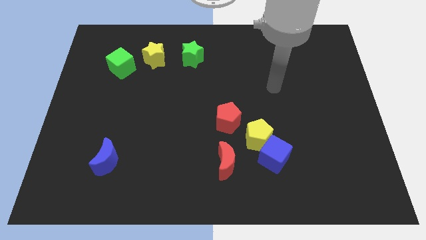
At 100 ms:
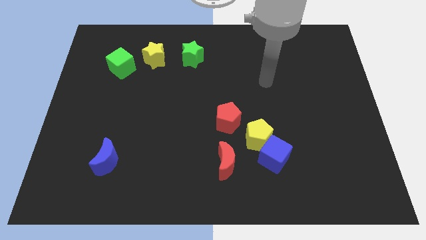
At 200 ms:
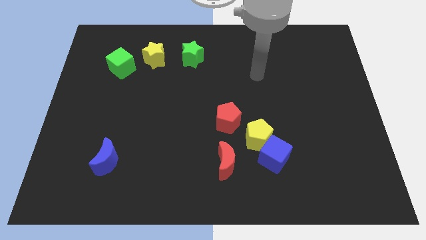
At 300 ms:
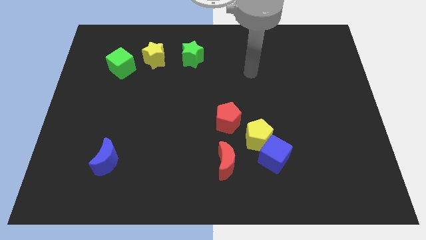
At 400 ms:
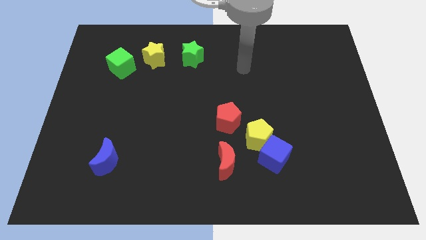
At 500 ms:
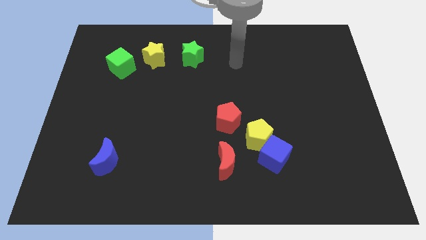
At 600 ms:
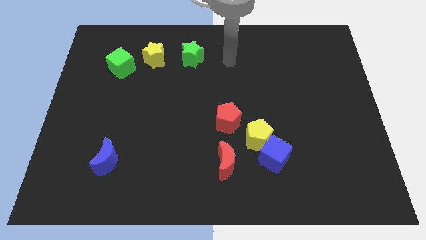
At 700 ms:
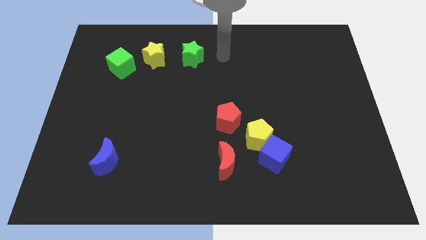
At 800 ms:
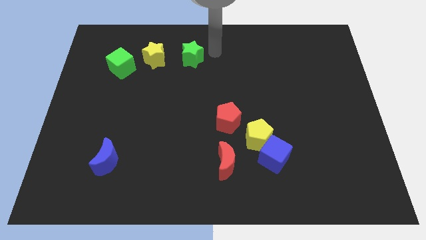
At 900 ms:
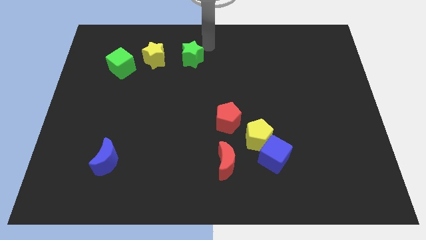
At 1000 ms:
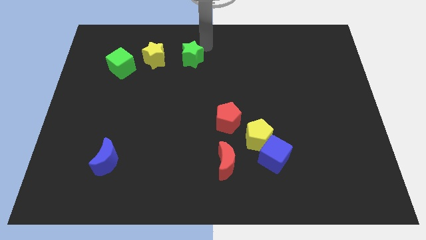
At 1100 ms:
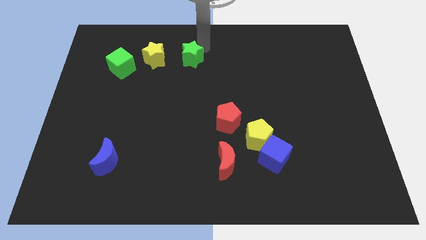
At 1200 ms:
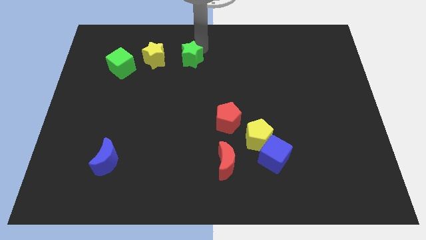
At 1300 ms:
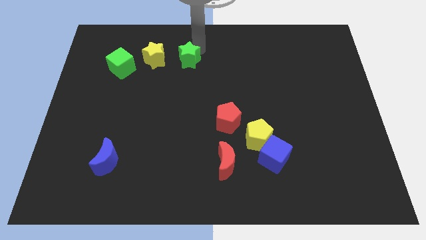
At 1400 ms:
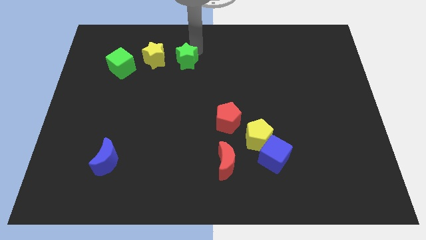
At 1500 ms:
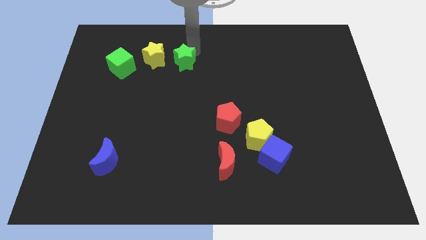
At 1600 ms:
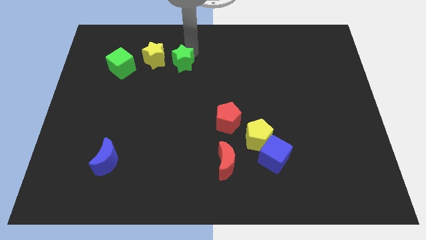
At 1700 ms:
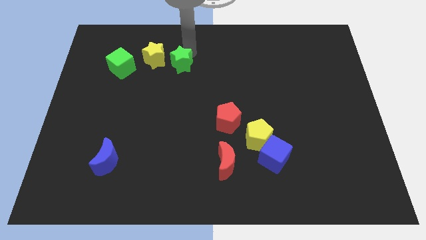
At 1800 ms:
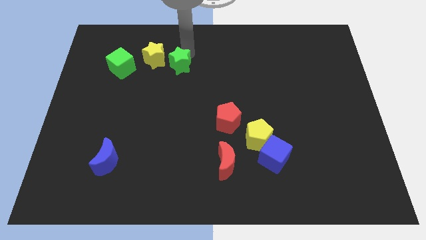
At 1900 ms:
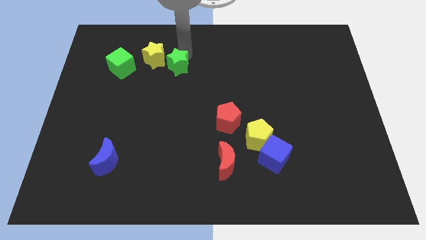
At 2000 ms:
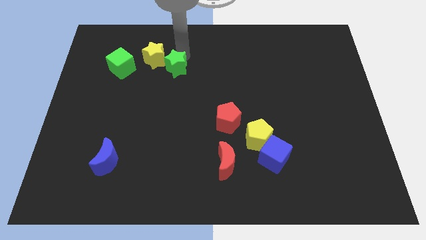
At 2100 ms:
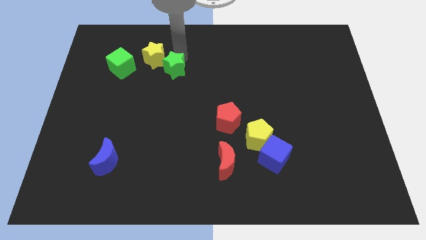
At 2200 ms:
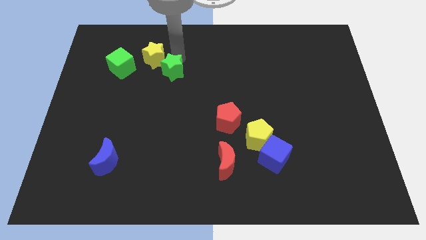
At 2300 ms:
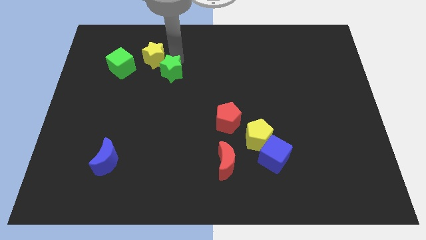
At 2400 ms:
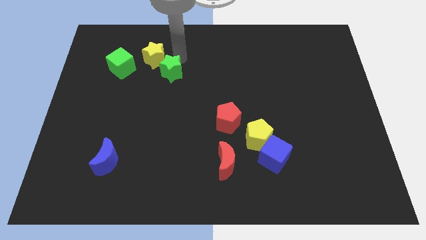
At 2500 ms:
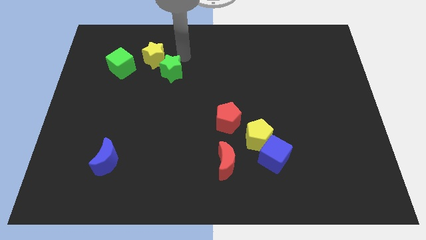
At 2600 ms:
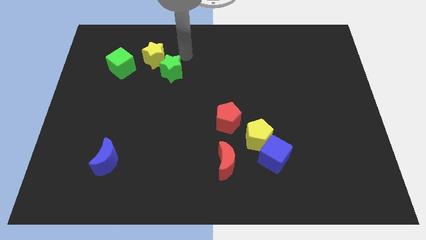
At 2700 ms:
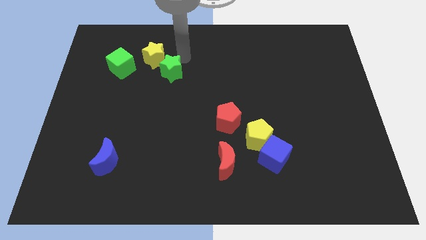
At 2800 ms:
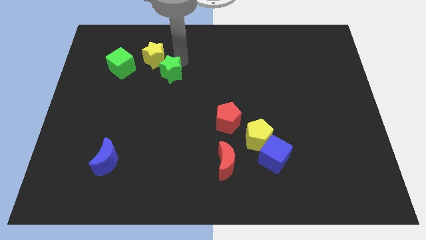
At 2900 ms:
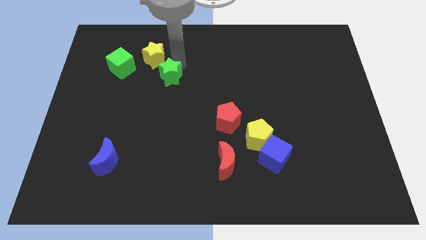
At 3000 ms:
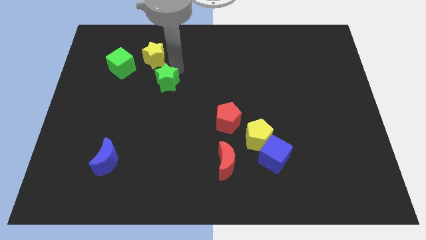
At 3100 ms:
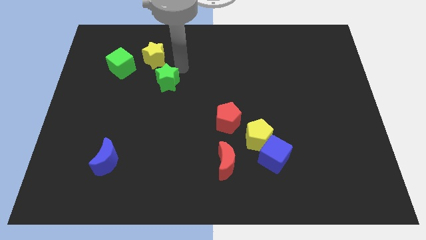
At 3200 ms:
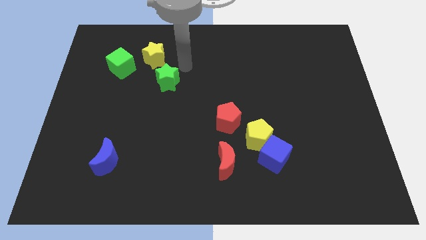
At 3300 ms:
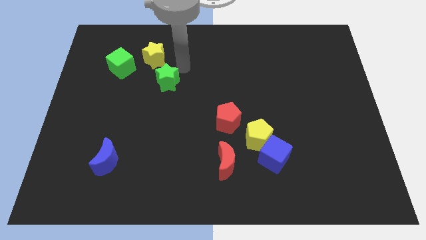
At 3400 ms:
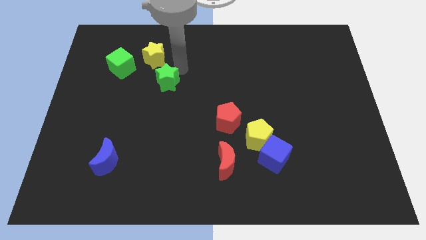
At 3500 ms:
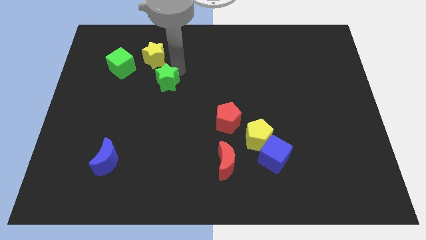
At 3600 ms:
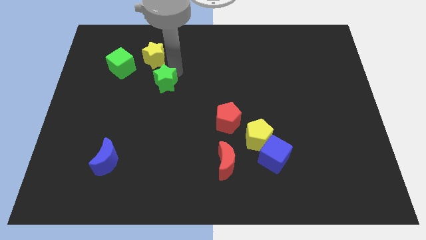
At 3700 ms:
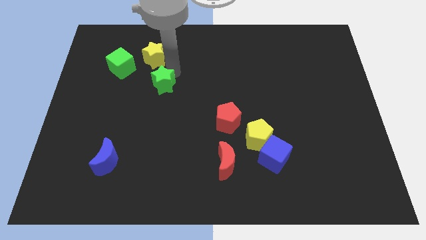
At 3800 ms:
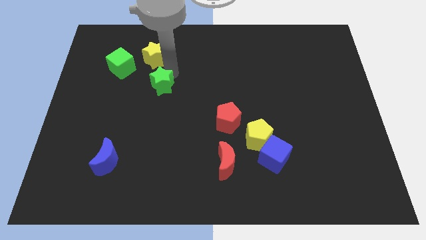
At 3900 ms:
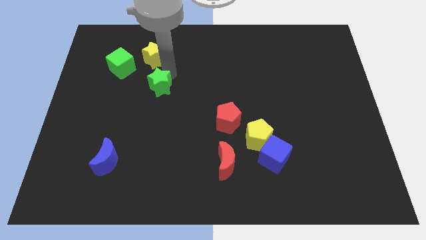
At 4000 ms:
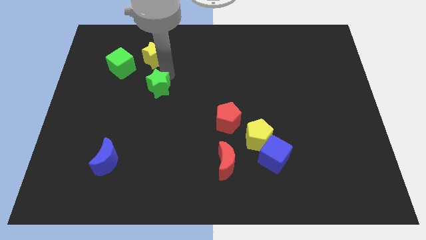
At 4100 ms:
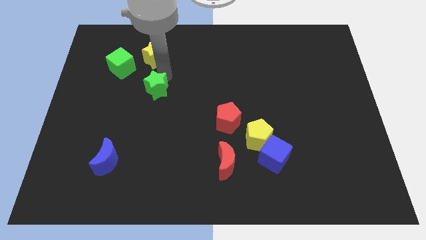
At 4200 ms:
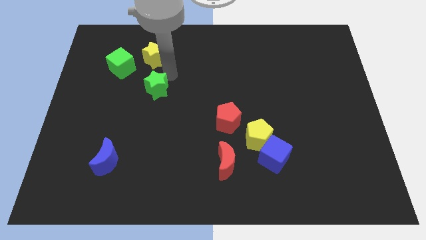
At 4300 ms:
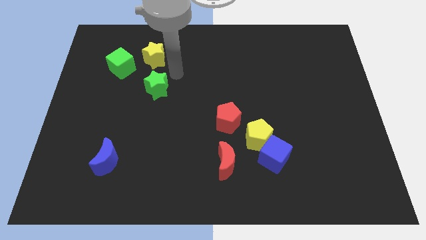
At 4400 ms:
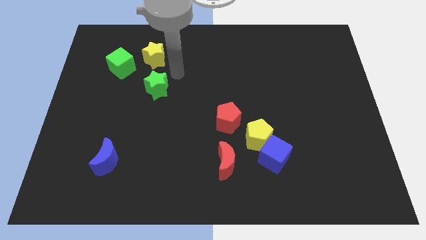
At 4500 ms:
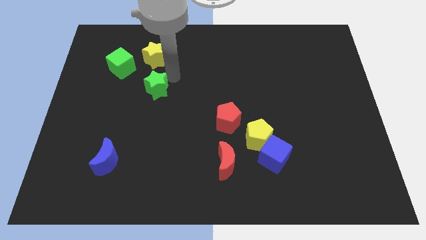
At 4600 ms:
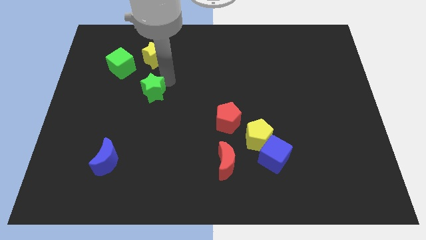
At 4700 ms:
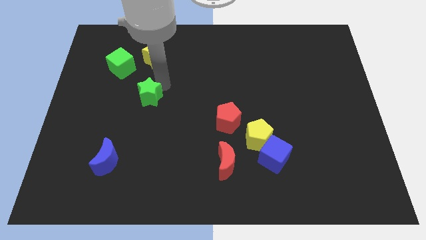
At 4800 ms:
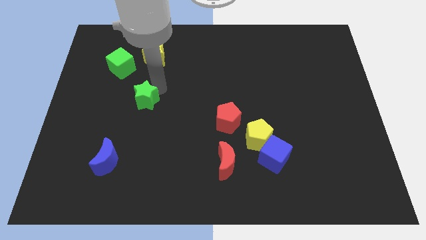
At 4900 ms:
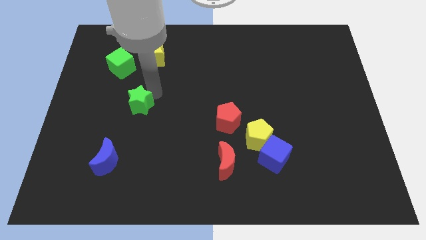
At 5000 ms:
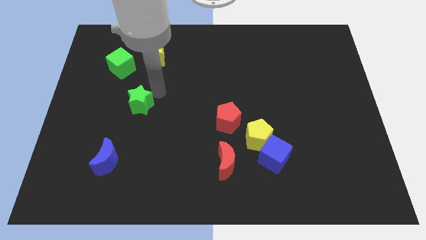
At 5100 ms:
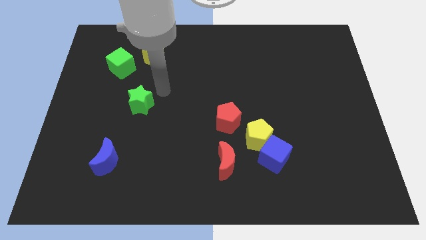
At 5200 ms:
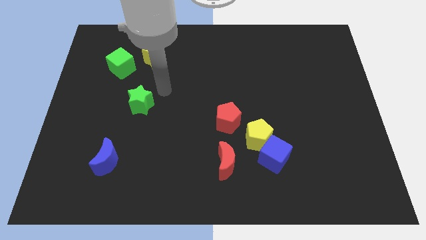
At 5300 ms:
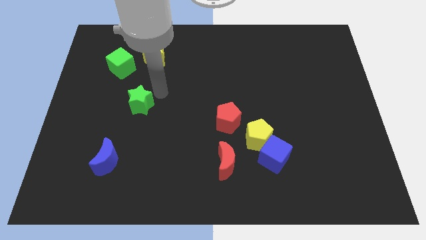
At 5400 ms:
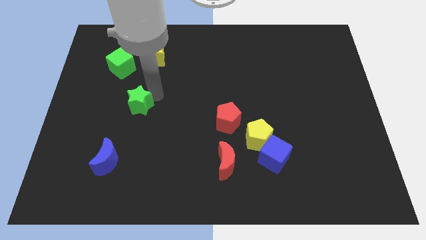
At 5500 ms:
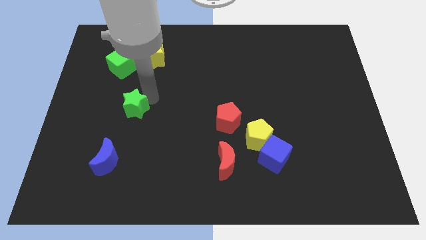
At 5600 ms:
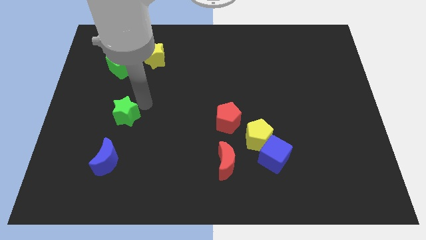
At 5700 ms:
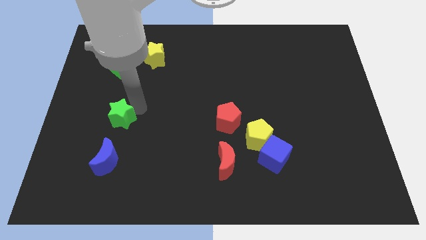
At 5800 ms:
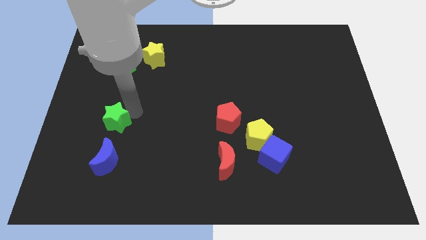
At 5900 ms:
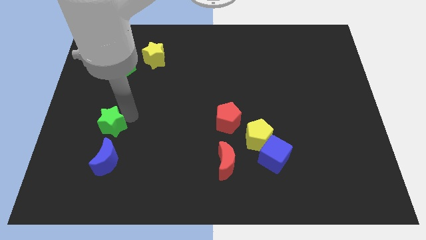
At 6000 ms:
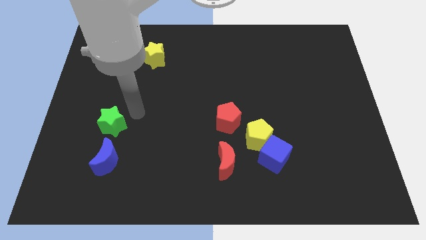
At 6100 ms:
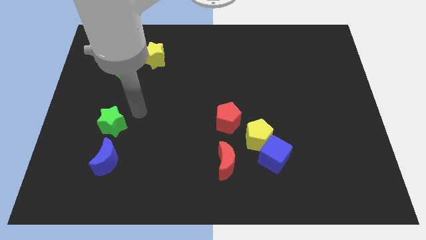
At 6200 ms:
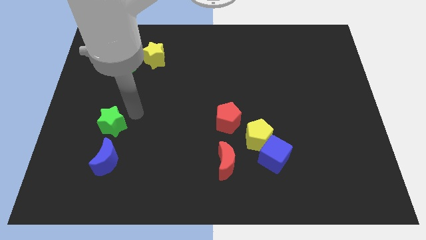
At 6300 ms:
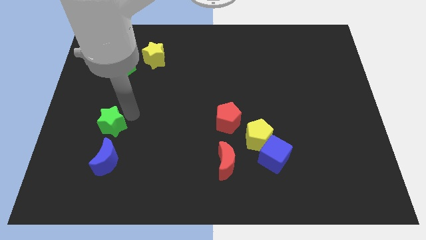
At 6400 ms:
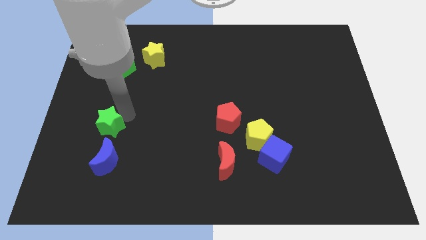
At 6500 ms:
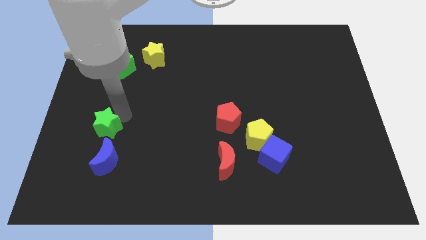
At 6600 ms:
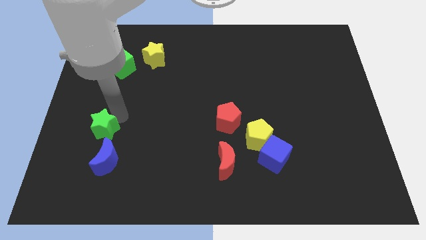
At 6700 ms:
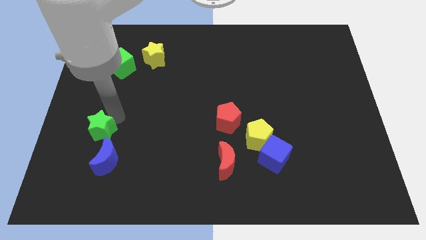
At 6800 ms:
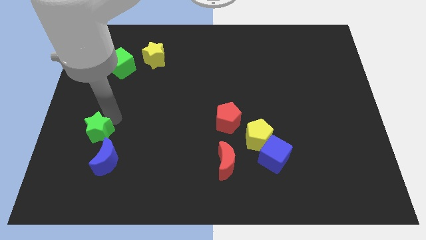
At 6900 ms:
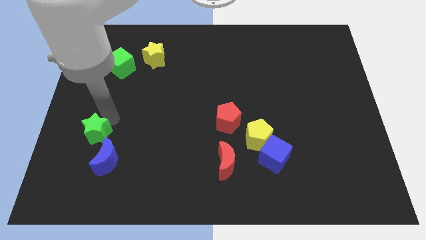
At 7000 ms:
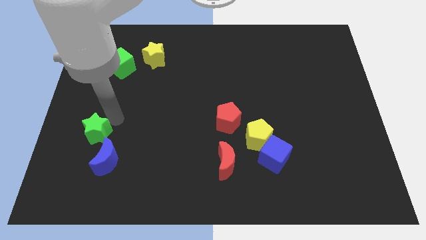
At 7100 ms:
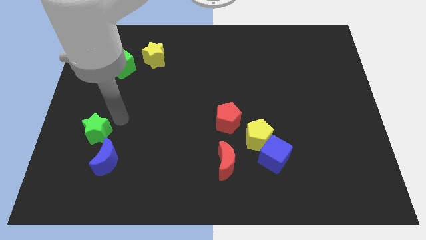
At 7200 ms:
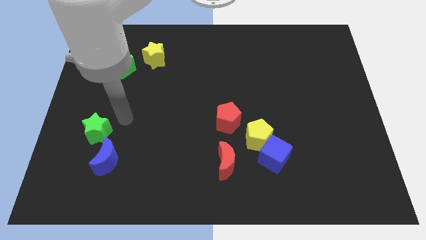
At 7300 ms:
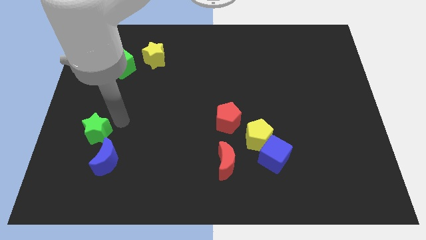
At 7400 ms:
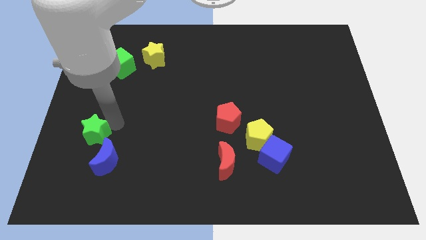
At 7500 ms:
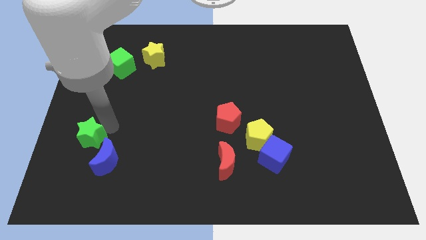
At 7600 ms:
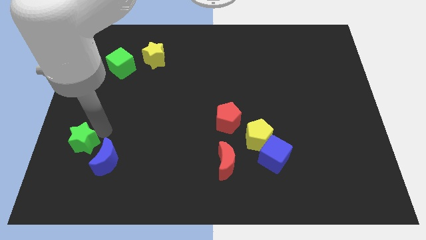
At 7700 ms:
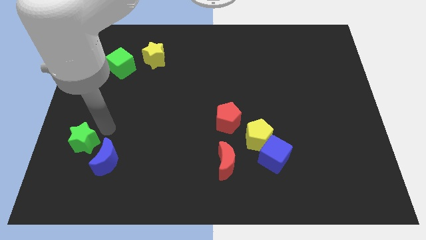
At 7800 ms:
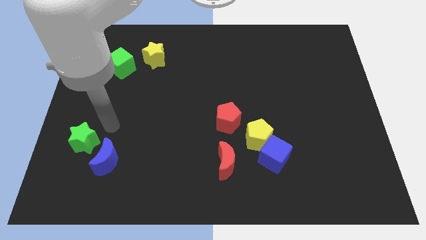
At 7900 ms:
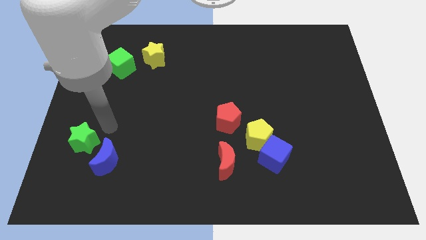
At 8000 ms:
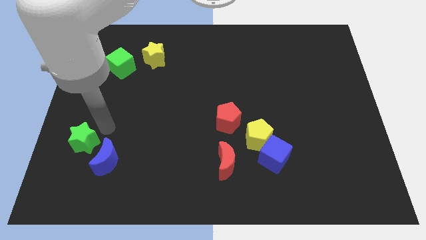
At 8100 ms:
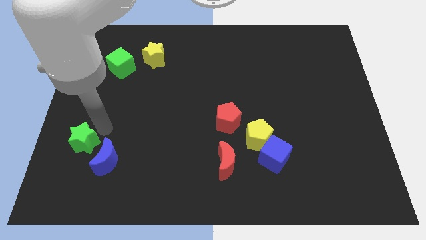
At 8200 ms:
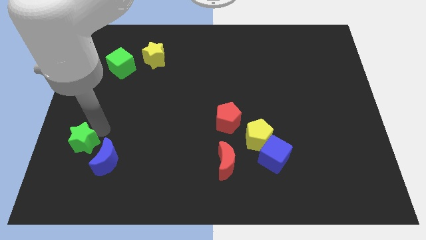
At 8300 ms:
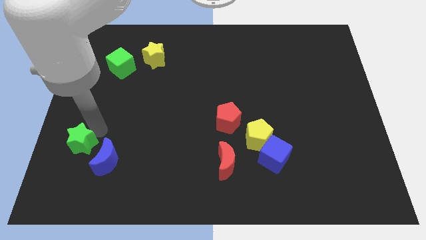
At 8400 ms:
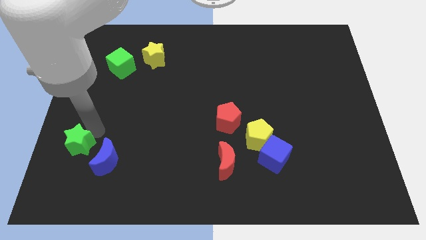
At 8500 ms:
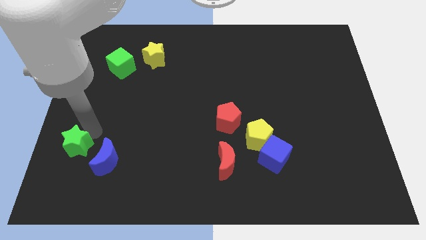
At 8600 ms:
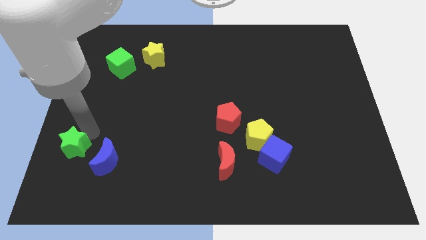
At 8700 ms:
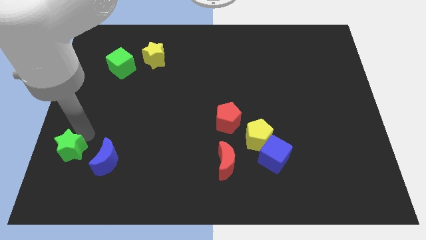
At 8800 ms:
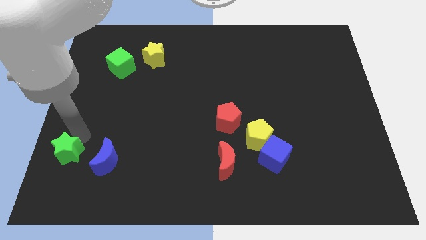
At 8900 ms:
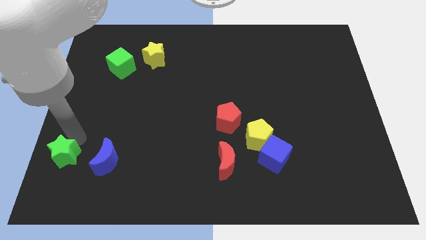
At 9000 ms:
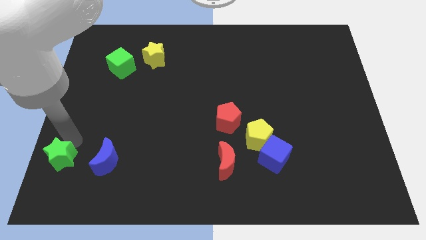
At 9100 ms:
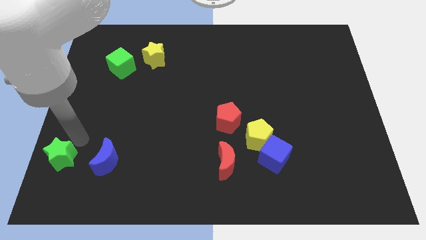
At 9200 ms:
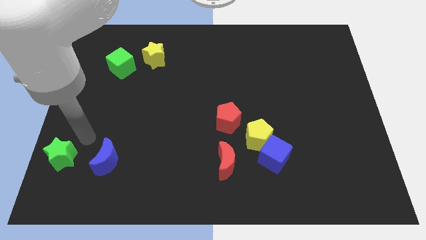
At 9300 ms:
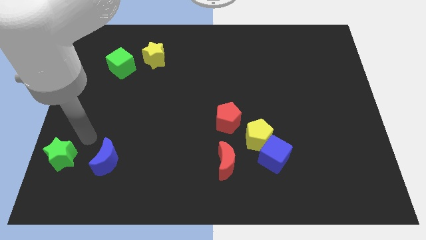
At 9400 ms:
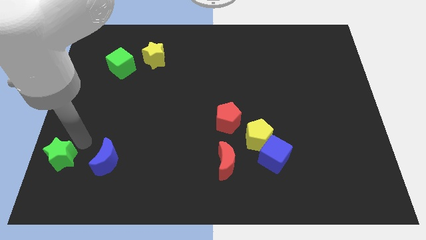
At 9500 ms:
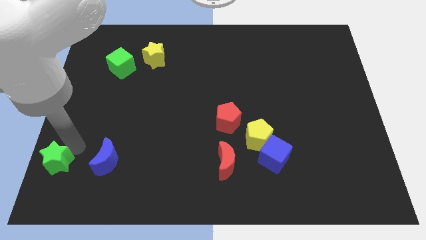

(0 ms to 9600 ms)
push the green star to the bottom left corner
